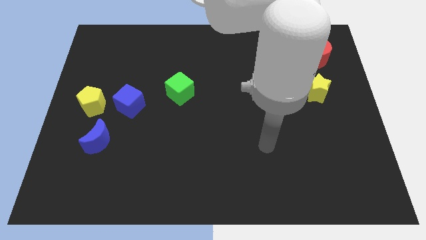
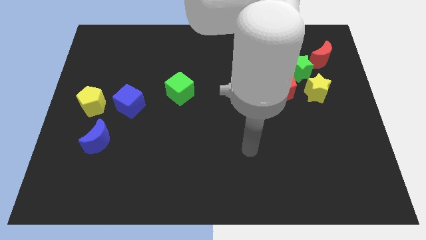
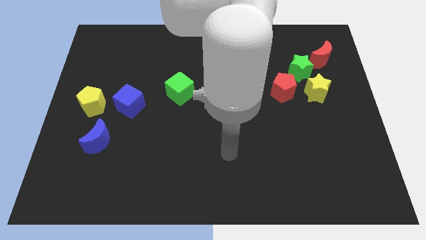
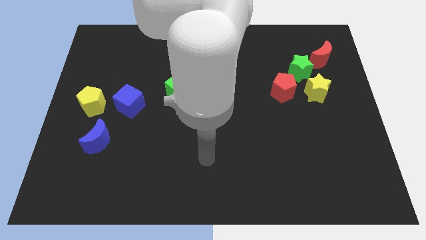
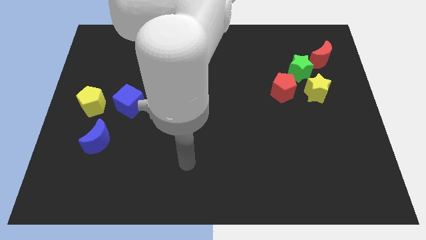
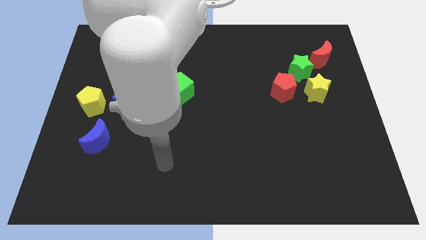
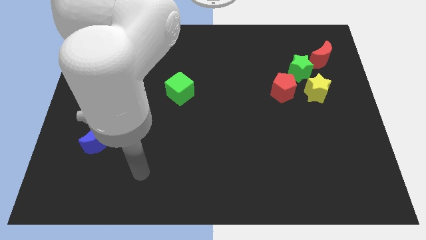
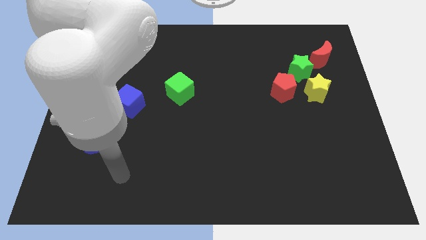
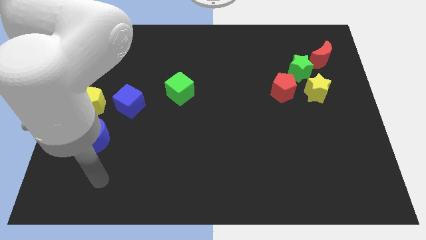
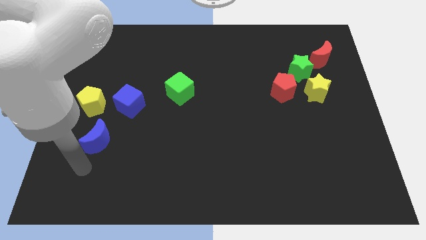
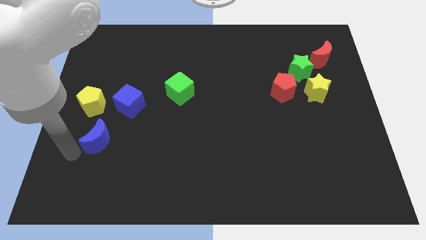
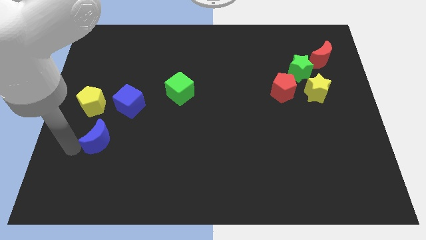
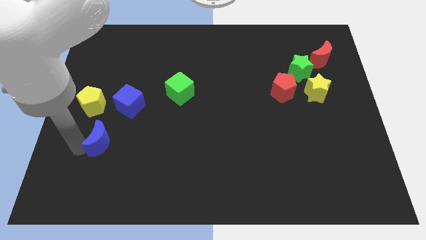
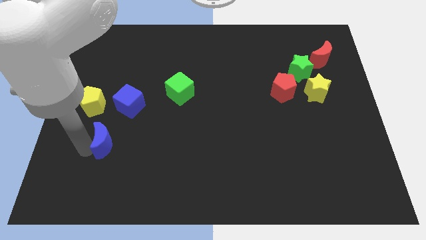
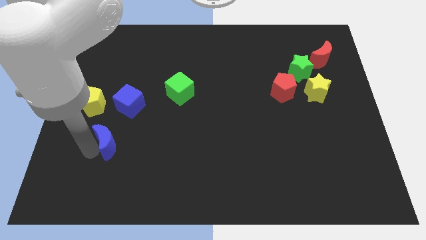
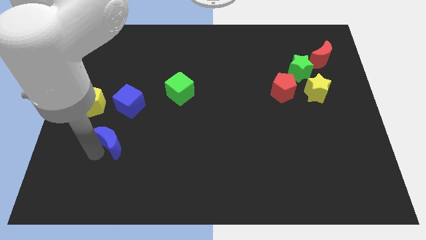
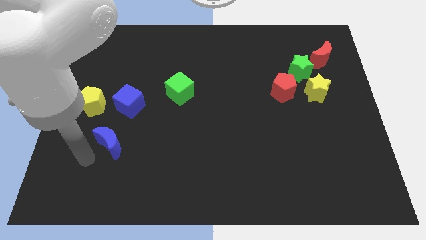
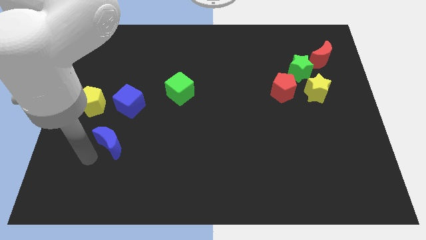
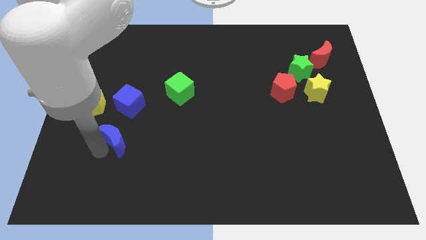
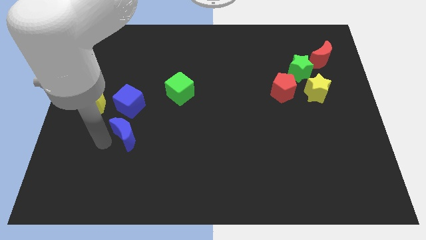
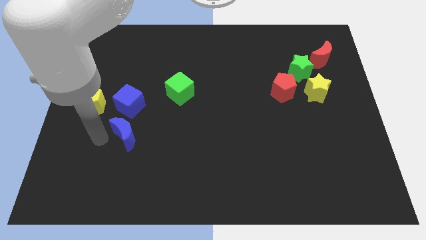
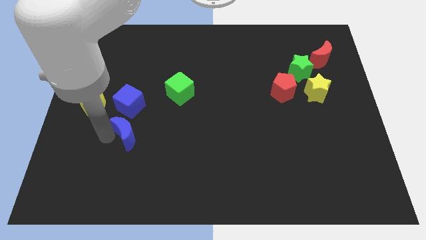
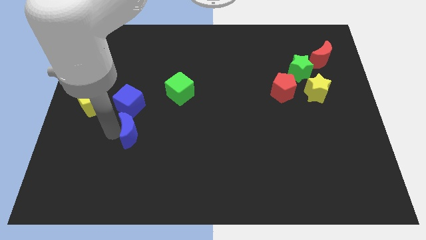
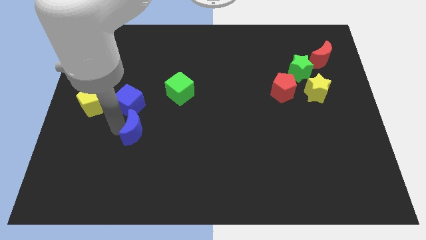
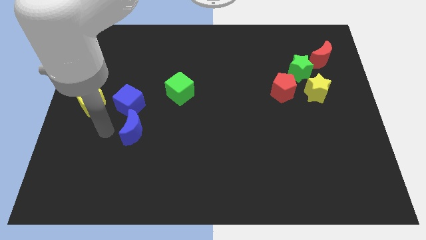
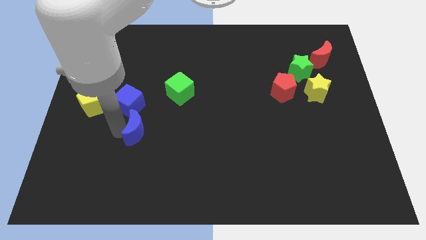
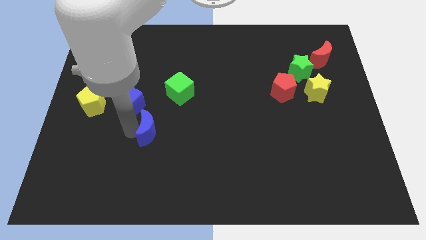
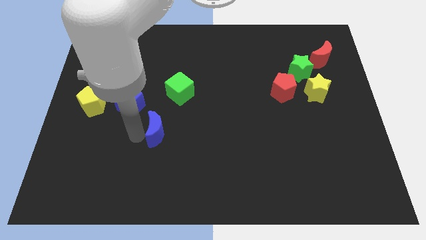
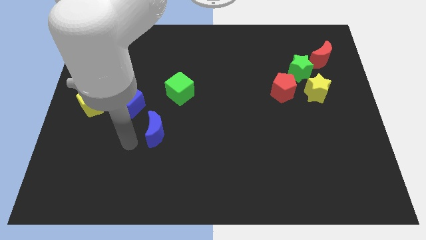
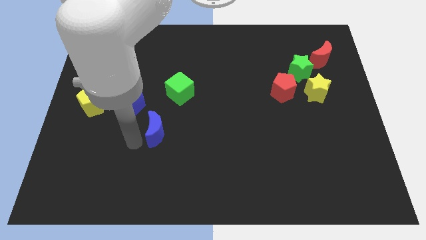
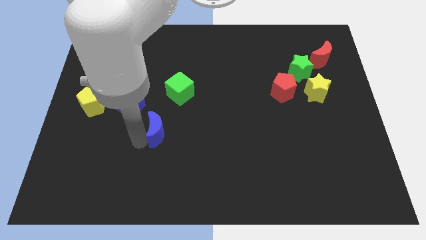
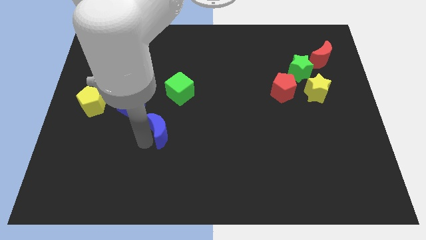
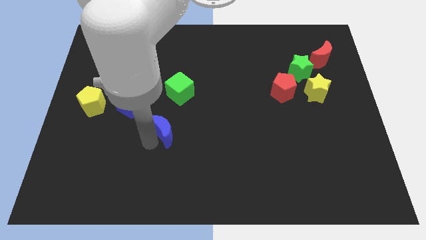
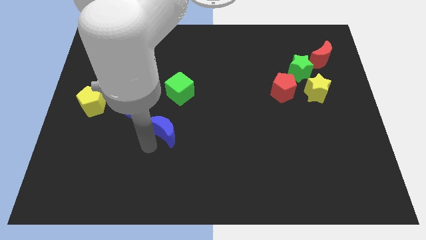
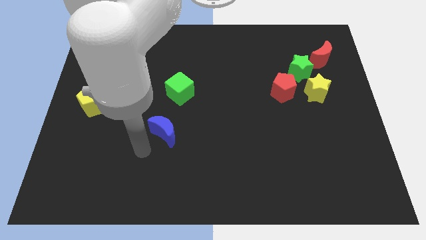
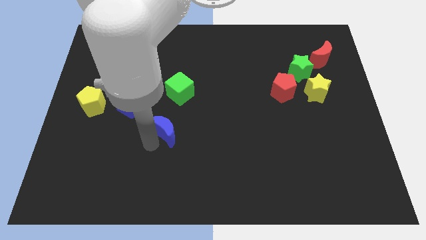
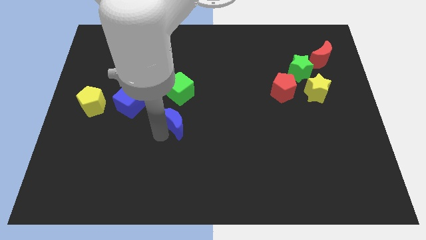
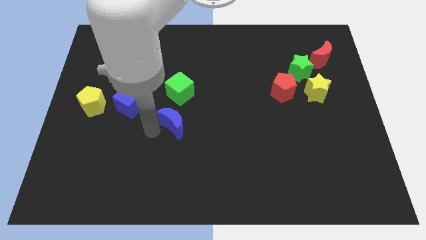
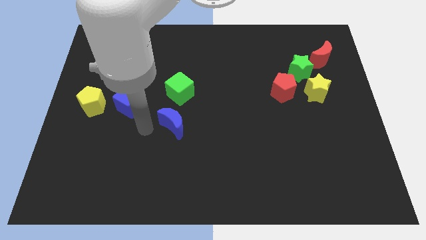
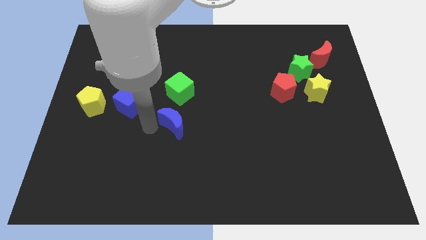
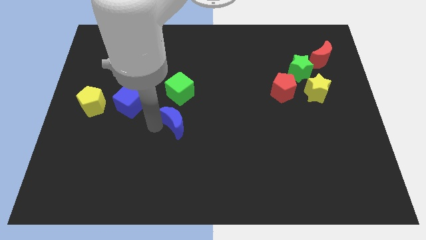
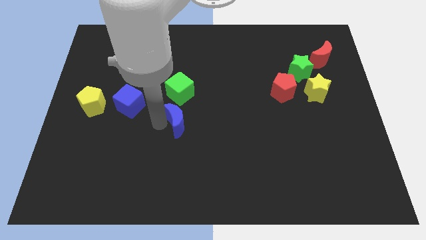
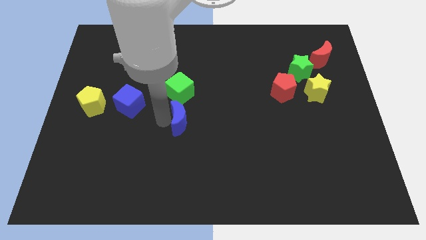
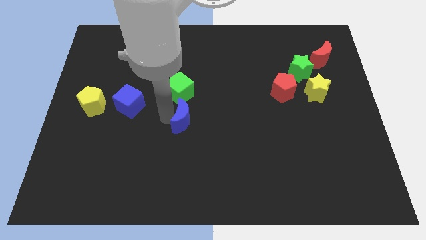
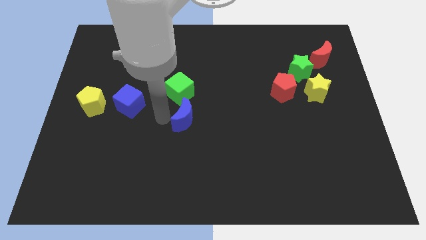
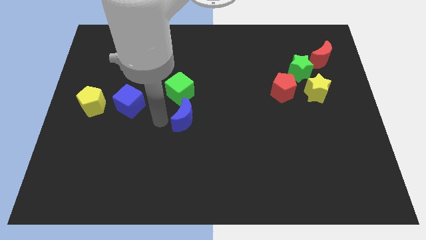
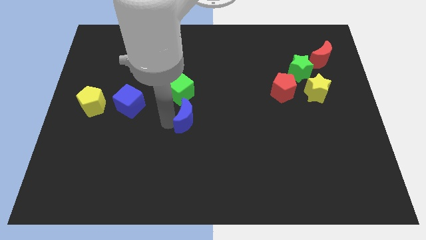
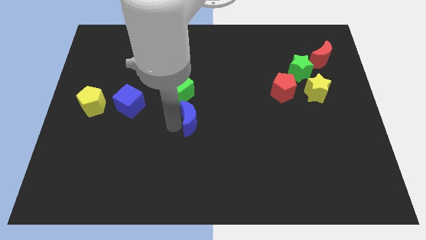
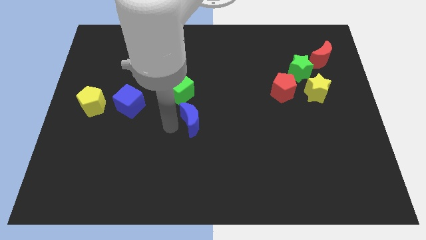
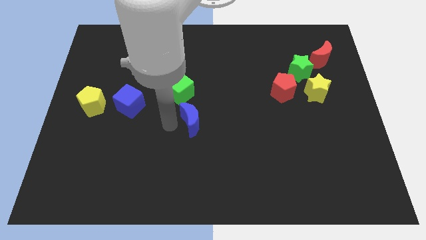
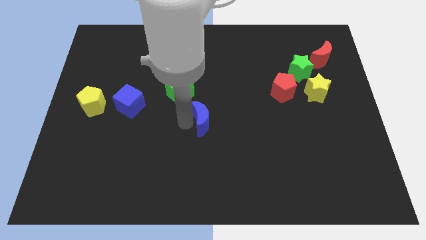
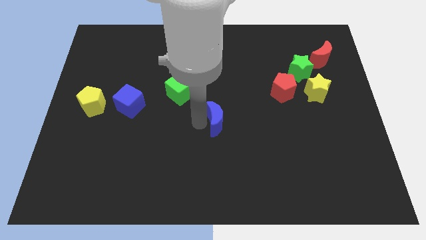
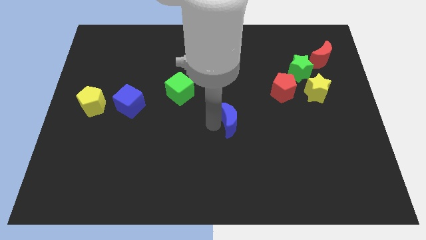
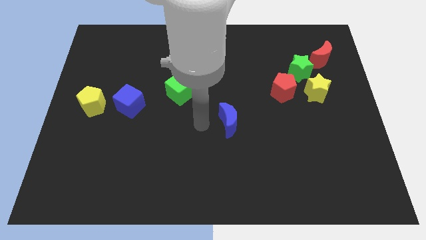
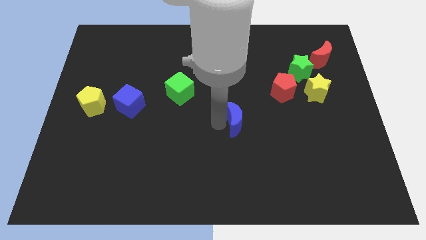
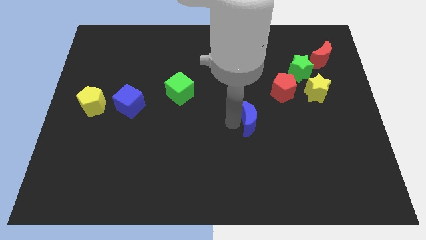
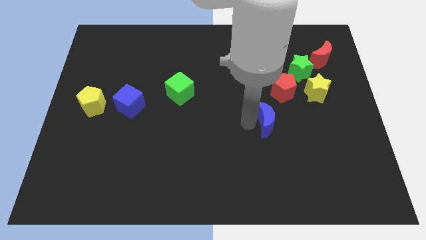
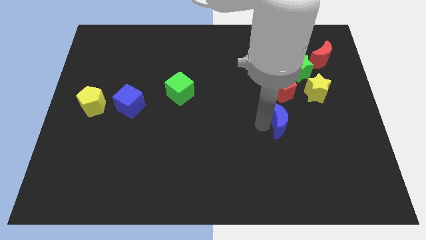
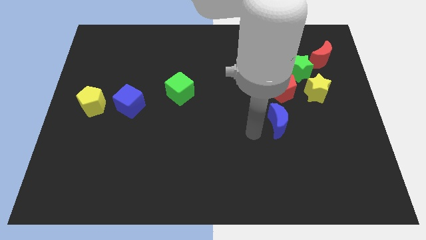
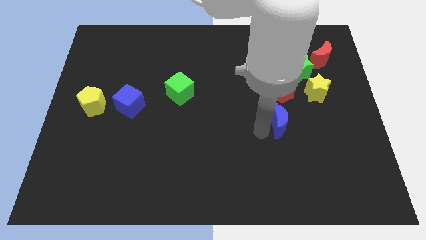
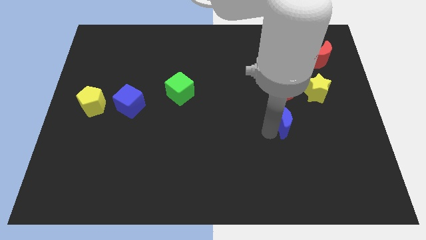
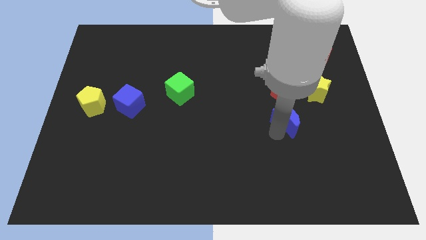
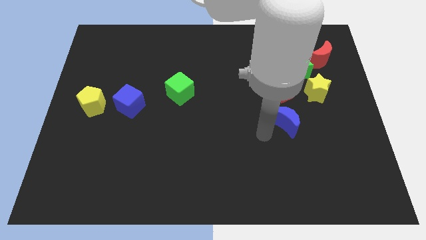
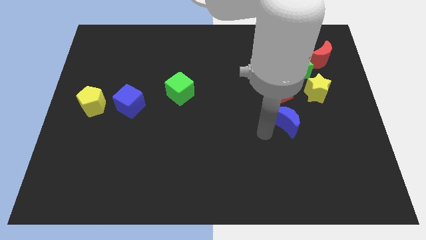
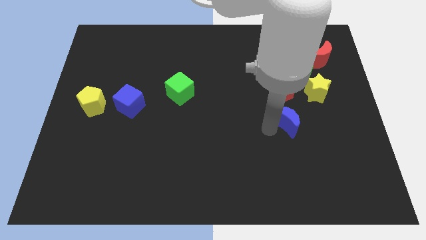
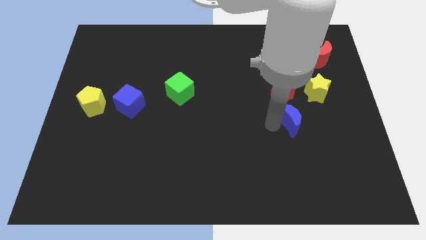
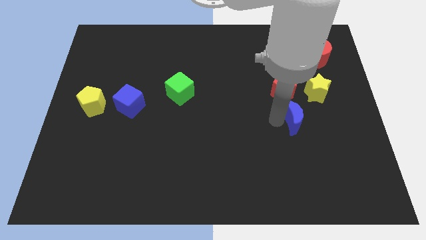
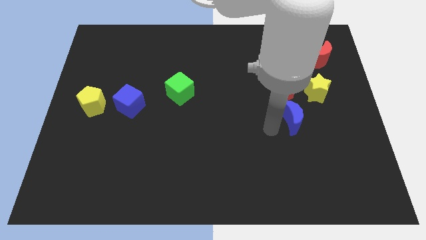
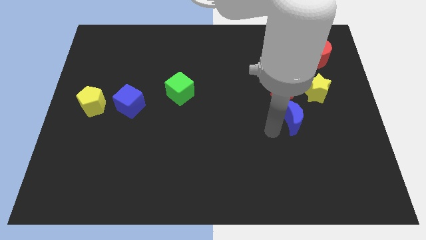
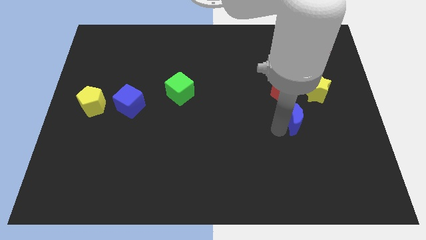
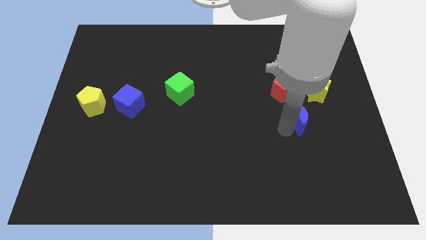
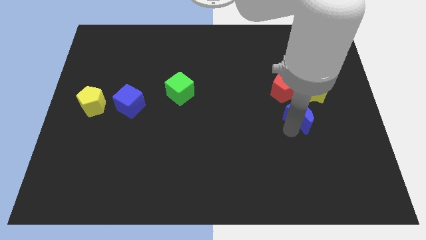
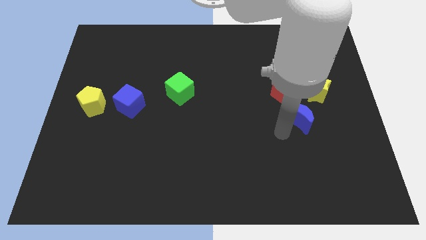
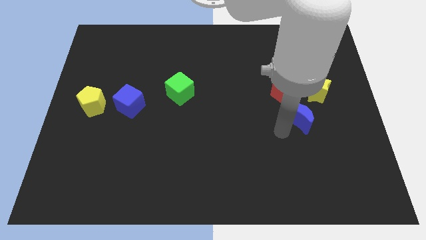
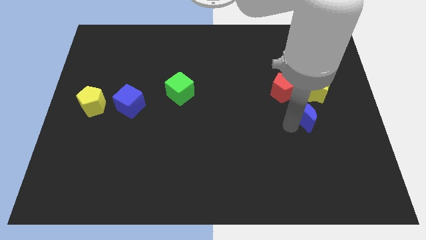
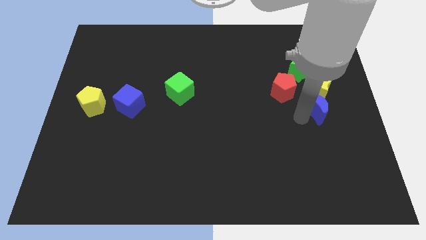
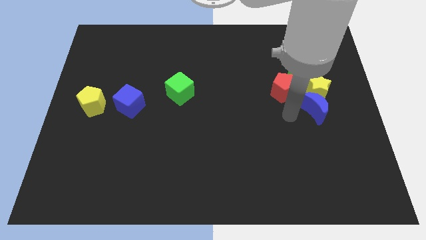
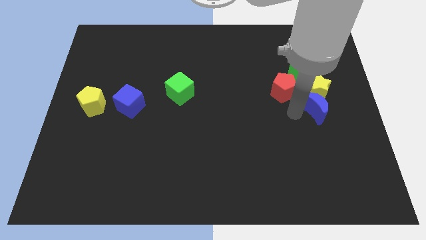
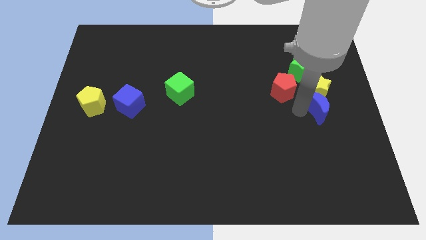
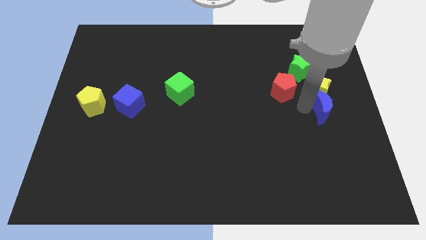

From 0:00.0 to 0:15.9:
slide the blue moon to the right side
